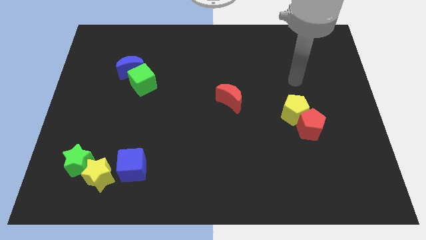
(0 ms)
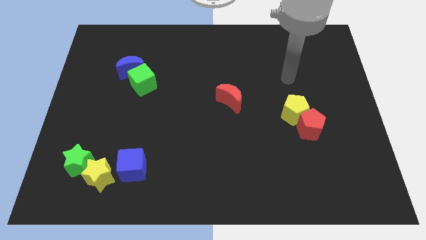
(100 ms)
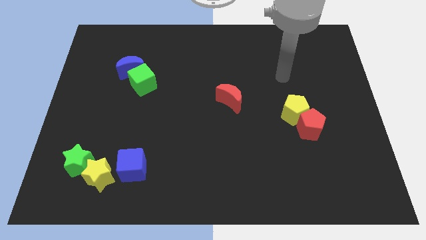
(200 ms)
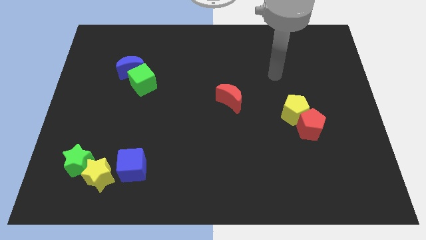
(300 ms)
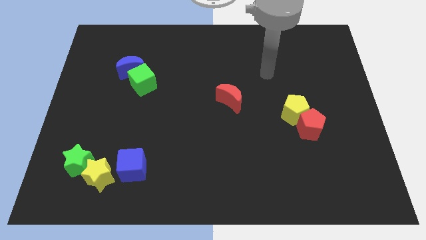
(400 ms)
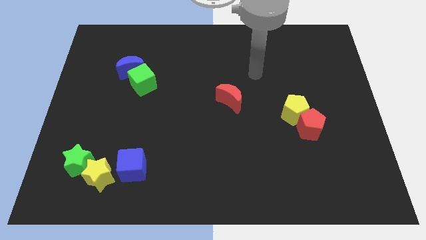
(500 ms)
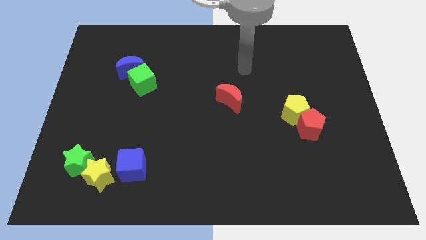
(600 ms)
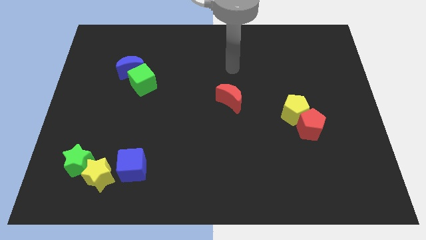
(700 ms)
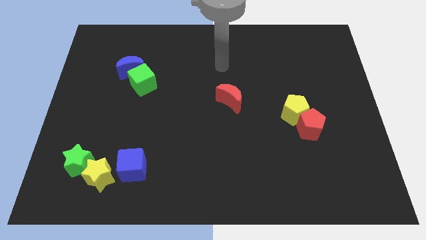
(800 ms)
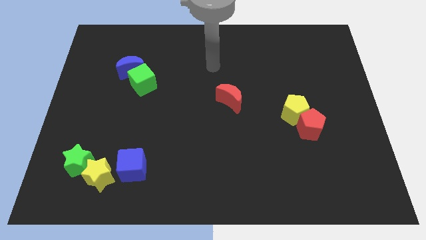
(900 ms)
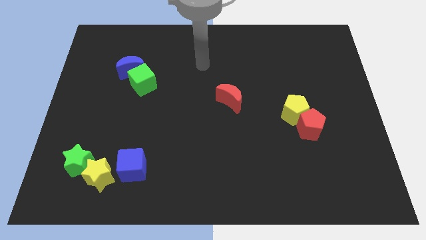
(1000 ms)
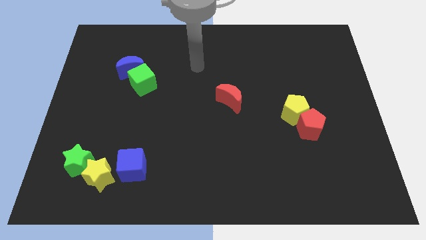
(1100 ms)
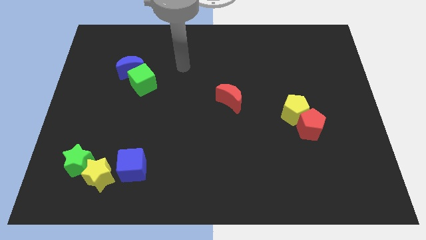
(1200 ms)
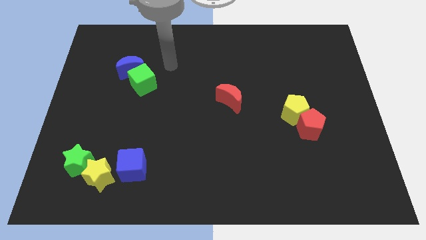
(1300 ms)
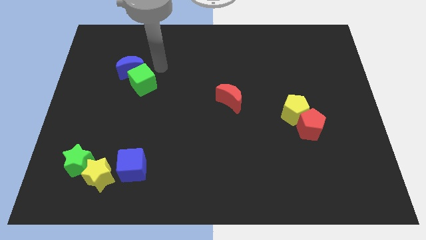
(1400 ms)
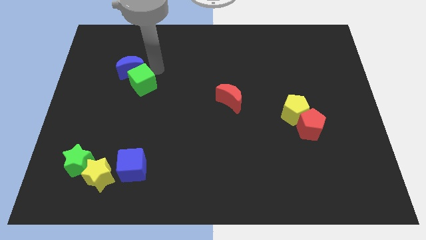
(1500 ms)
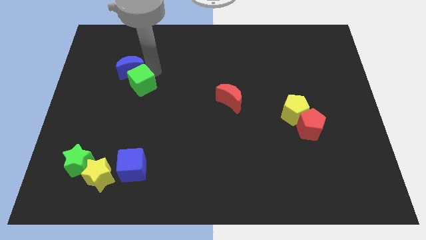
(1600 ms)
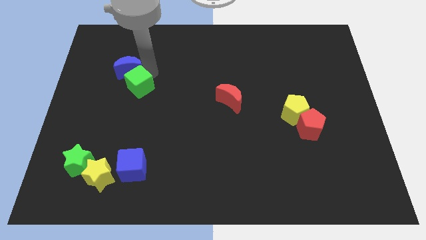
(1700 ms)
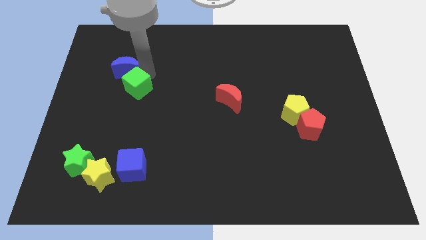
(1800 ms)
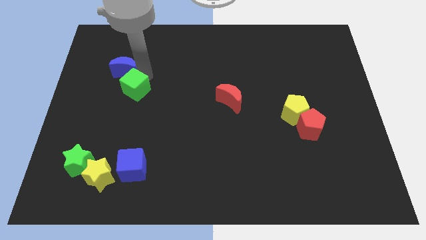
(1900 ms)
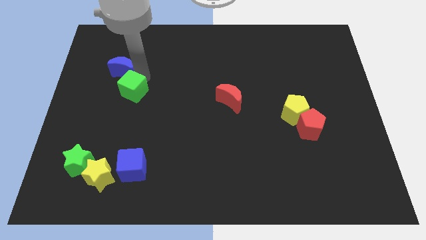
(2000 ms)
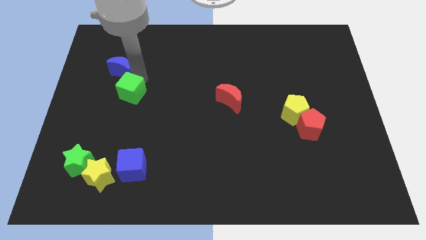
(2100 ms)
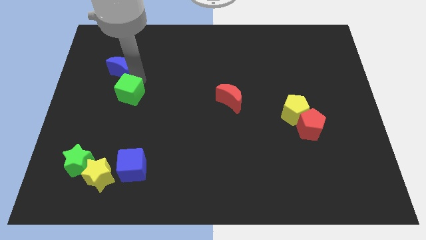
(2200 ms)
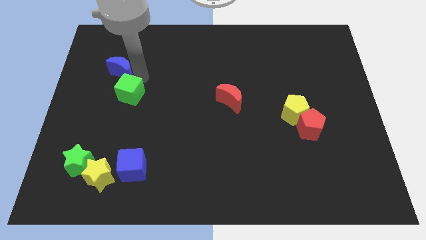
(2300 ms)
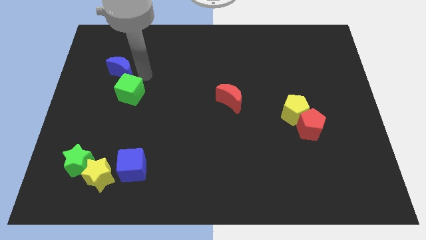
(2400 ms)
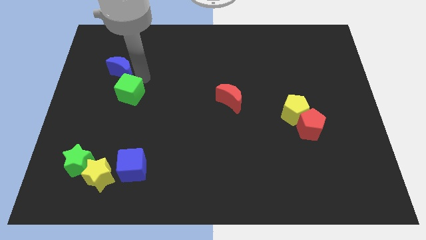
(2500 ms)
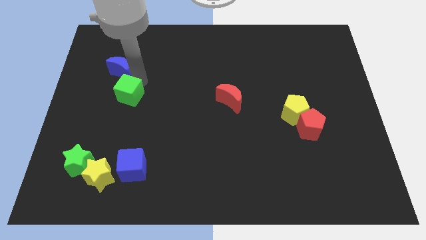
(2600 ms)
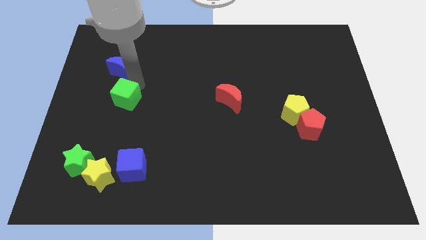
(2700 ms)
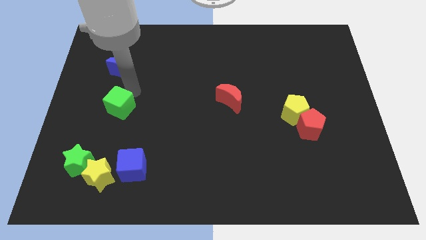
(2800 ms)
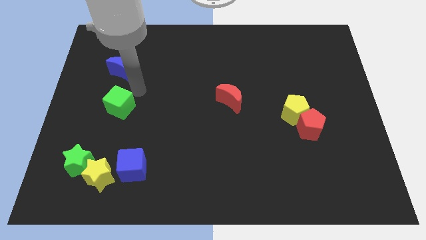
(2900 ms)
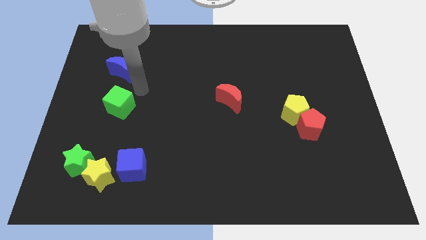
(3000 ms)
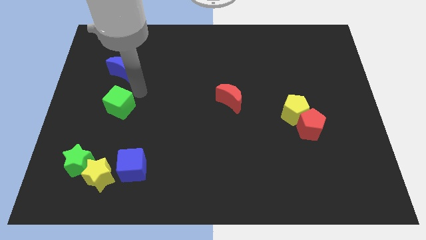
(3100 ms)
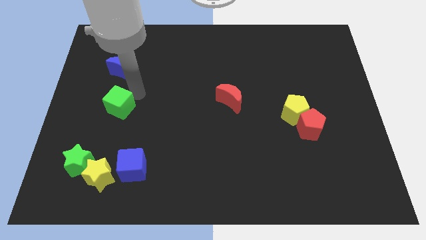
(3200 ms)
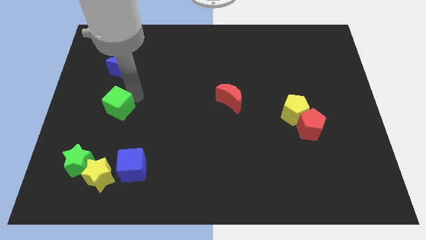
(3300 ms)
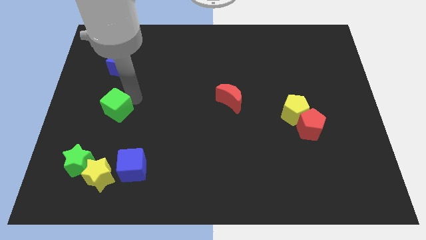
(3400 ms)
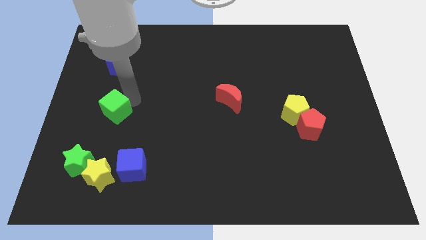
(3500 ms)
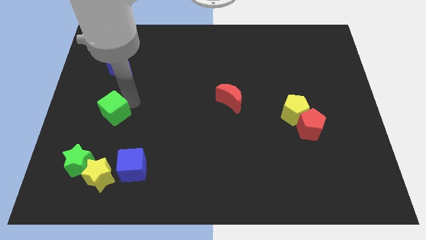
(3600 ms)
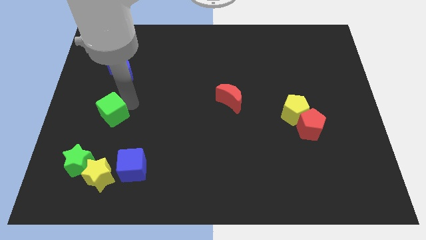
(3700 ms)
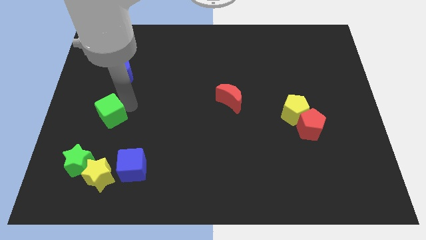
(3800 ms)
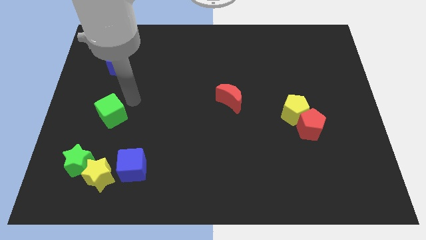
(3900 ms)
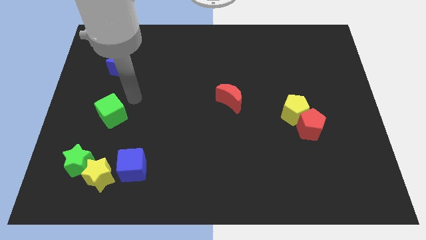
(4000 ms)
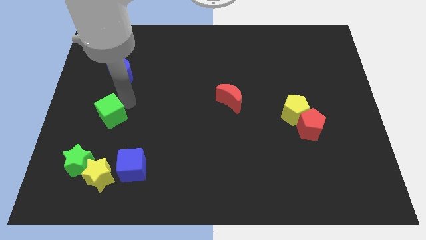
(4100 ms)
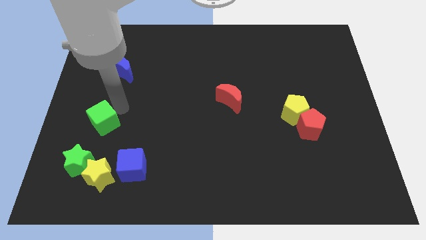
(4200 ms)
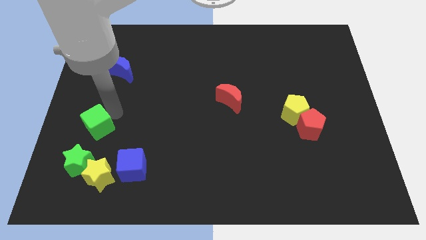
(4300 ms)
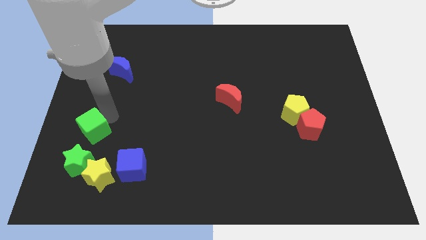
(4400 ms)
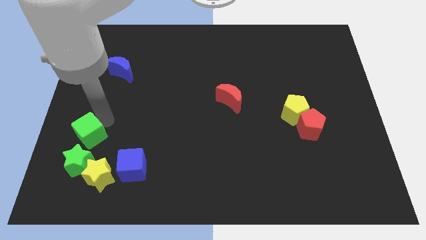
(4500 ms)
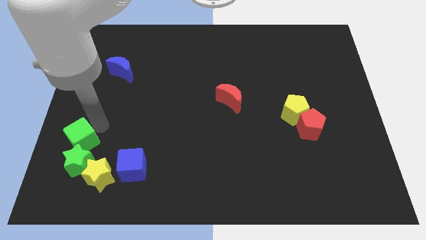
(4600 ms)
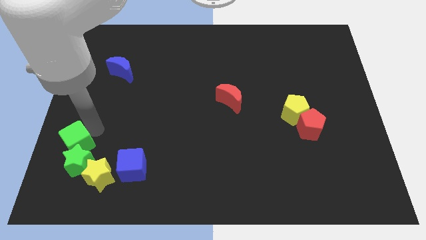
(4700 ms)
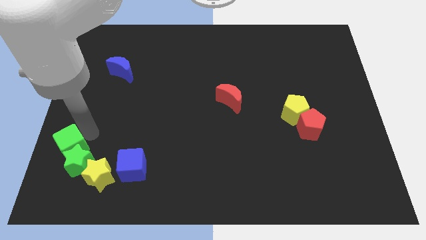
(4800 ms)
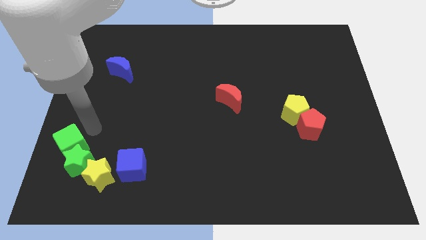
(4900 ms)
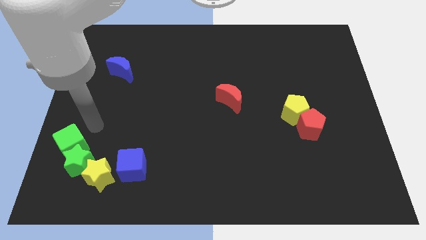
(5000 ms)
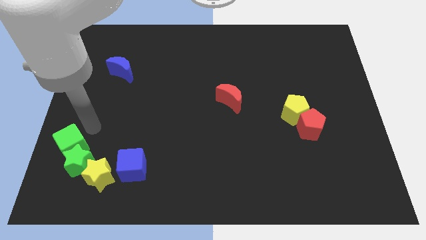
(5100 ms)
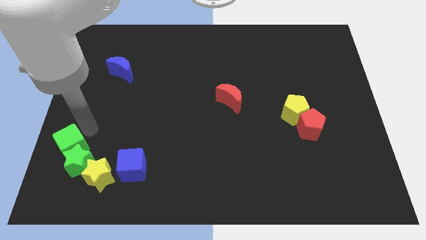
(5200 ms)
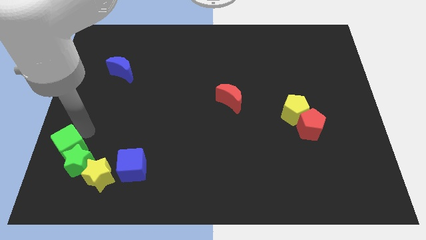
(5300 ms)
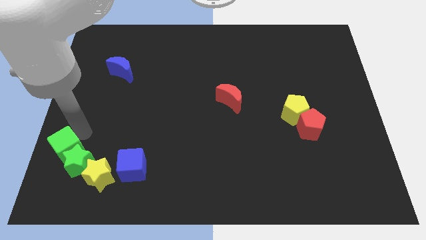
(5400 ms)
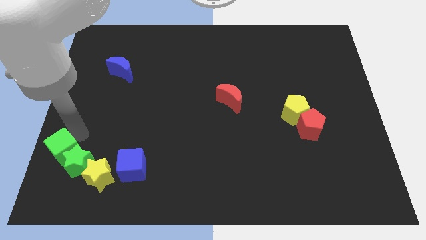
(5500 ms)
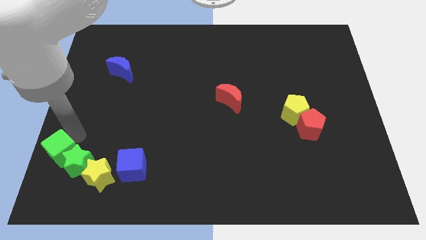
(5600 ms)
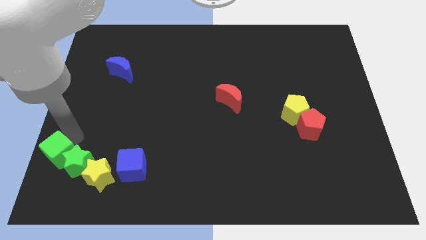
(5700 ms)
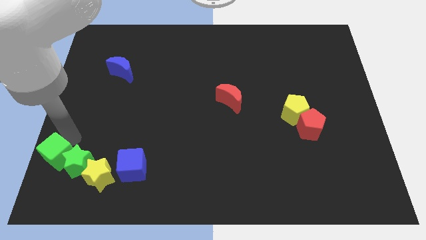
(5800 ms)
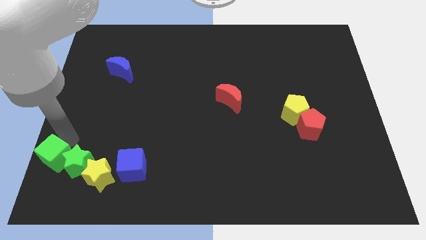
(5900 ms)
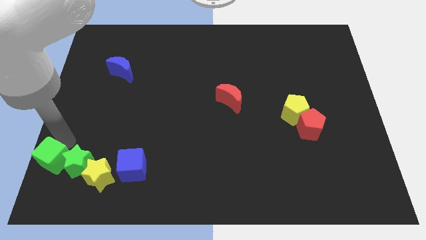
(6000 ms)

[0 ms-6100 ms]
move the green cube to the bottom left corner
